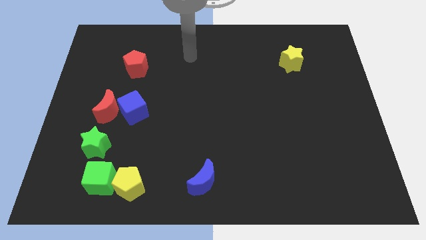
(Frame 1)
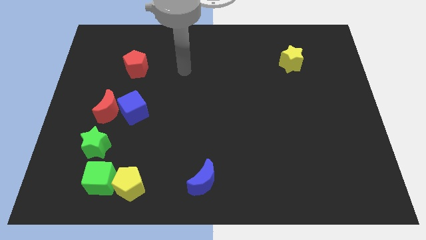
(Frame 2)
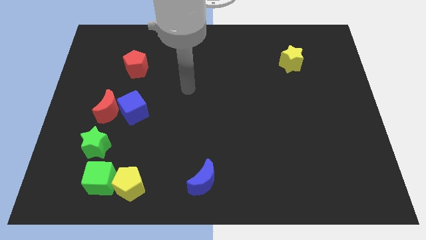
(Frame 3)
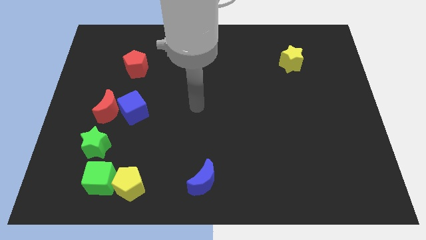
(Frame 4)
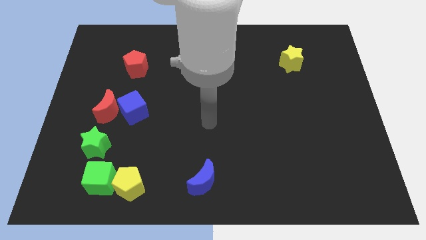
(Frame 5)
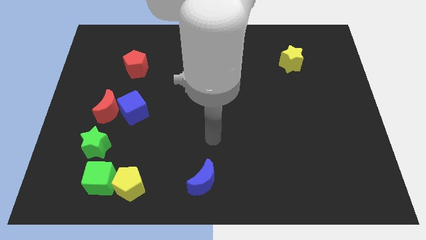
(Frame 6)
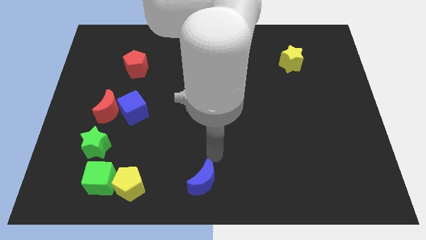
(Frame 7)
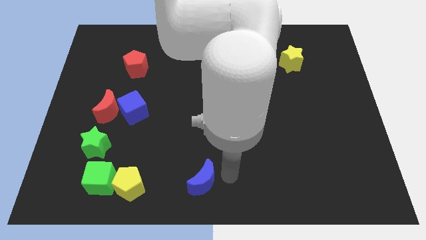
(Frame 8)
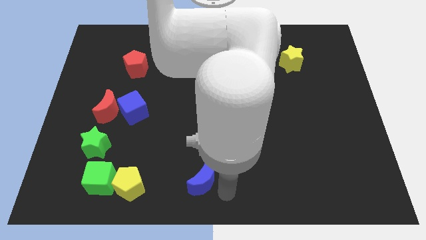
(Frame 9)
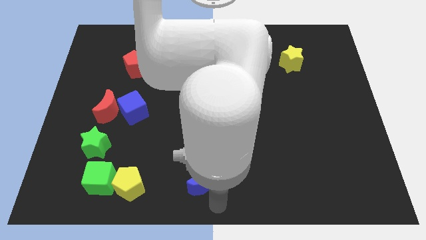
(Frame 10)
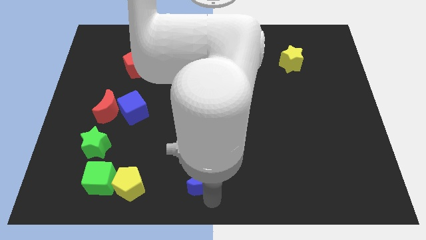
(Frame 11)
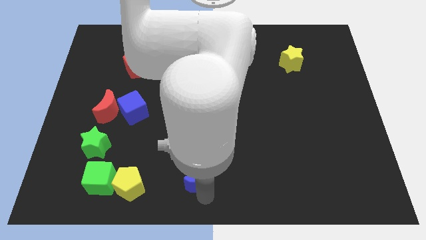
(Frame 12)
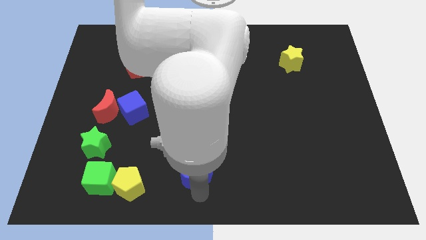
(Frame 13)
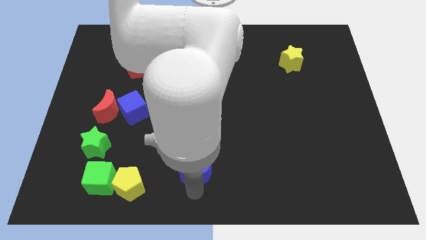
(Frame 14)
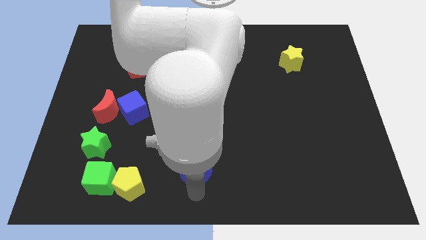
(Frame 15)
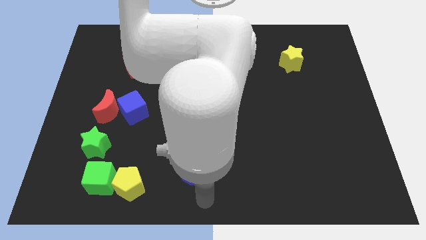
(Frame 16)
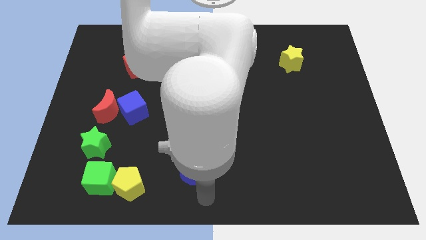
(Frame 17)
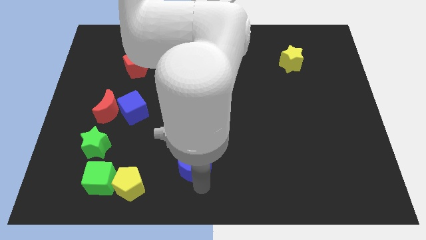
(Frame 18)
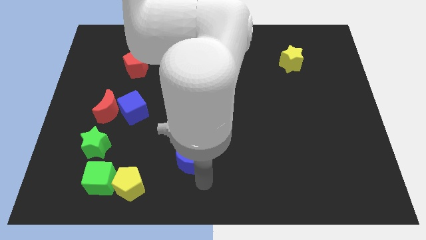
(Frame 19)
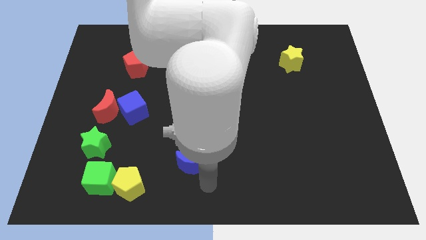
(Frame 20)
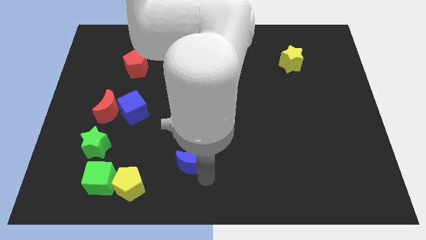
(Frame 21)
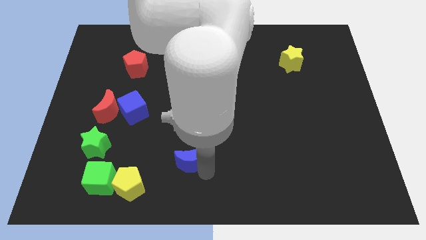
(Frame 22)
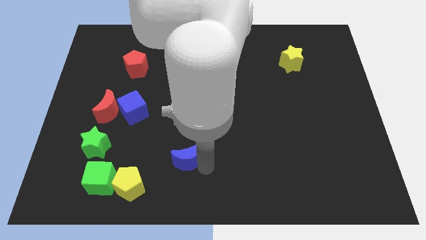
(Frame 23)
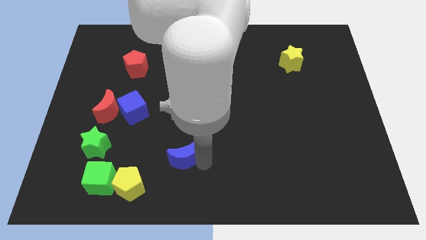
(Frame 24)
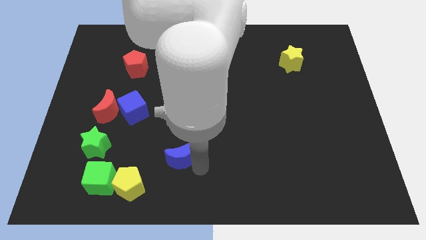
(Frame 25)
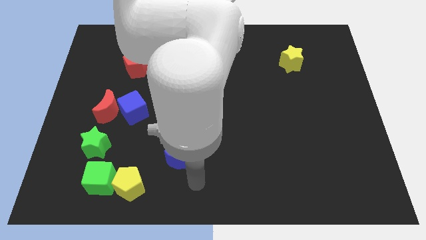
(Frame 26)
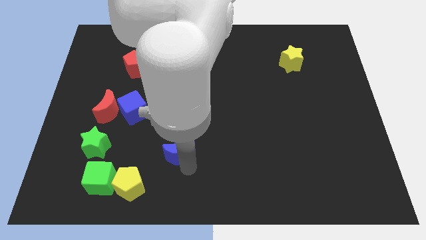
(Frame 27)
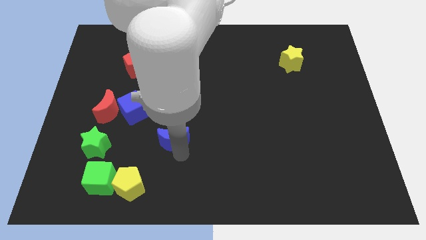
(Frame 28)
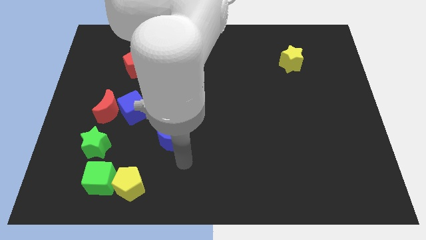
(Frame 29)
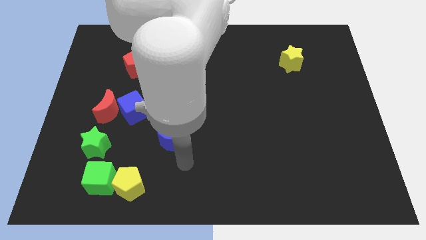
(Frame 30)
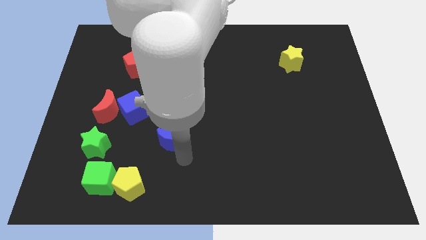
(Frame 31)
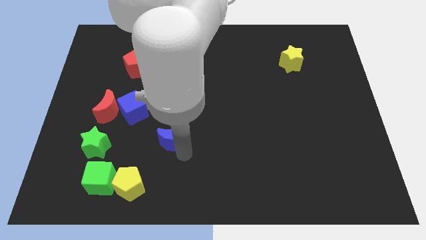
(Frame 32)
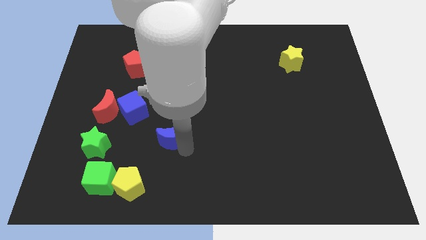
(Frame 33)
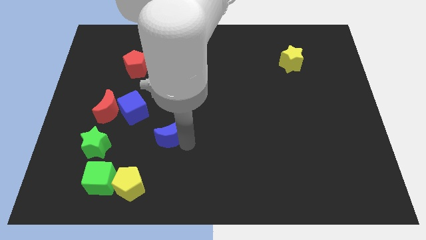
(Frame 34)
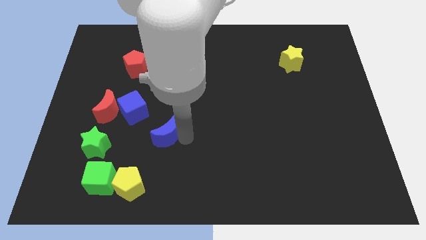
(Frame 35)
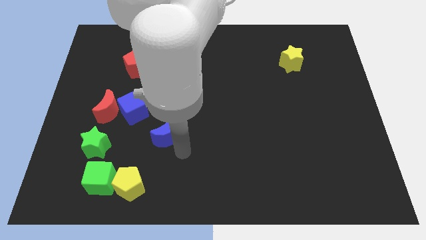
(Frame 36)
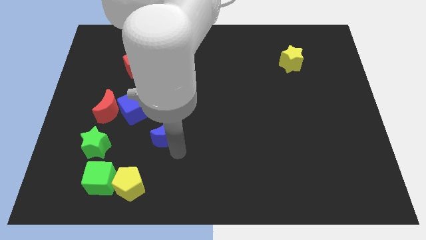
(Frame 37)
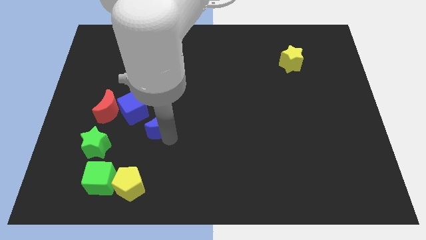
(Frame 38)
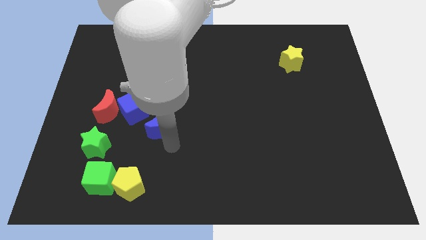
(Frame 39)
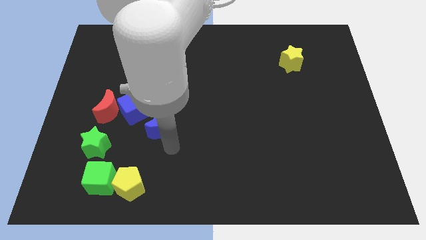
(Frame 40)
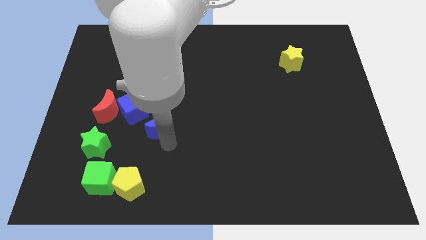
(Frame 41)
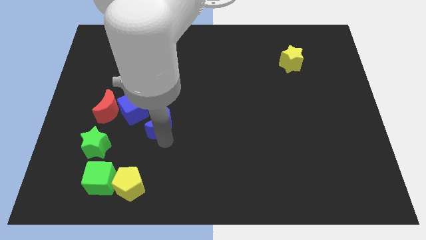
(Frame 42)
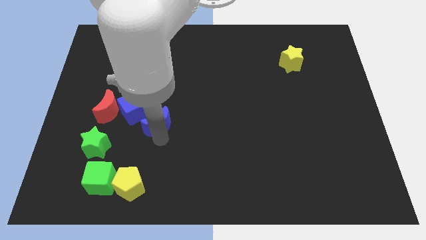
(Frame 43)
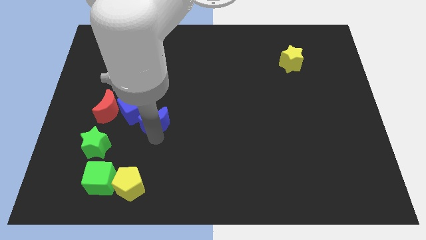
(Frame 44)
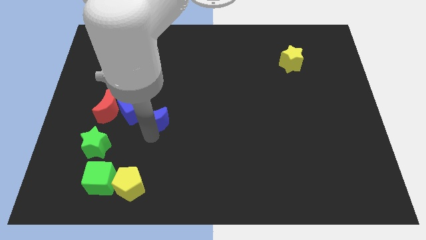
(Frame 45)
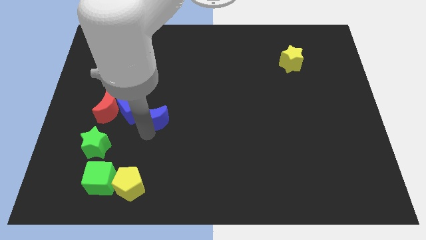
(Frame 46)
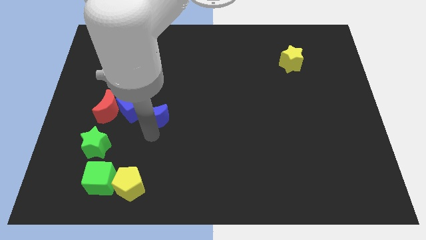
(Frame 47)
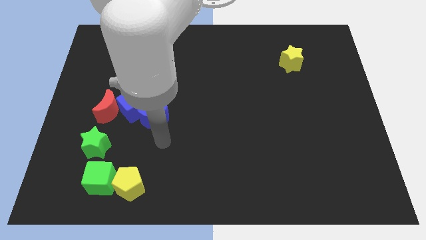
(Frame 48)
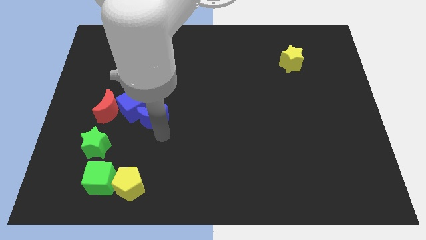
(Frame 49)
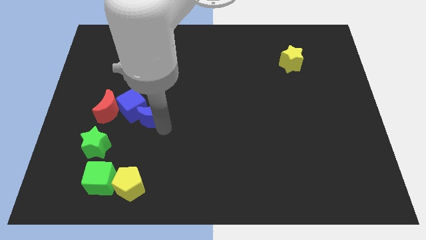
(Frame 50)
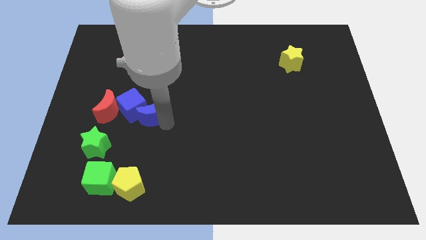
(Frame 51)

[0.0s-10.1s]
push the blue moon up and then to the left

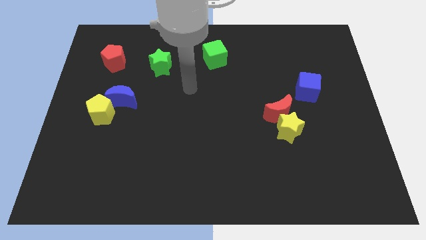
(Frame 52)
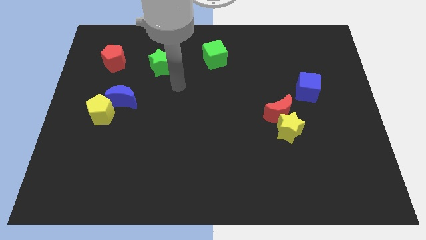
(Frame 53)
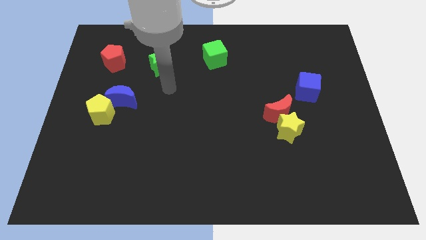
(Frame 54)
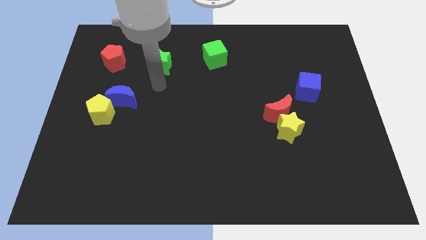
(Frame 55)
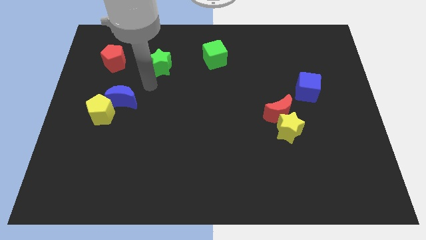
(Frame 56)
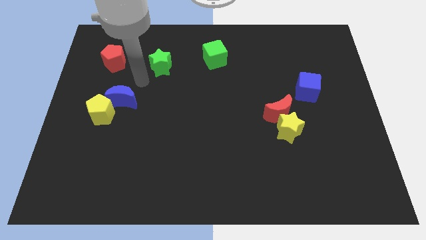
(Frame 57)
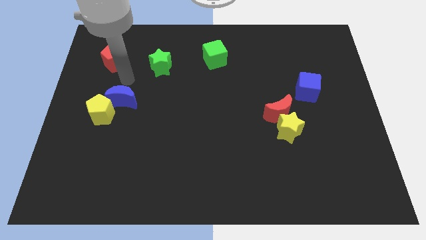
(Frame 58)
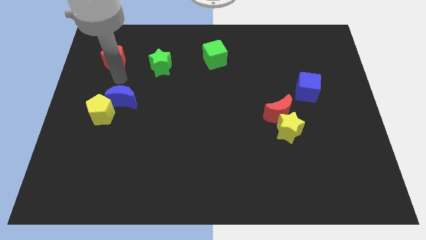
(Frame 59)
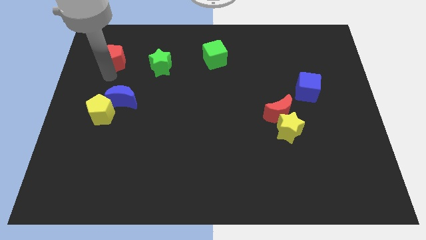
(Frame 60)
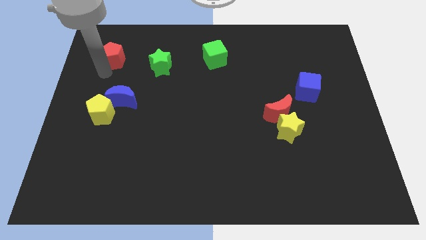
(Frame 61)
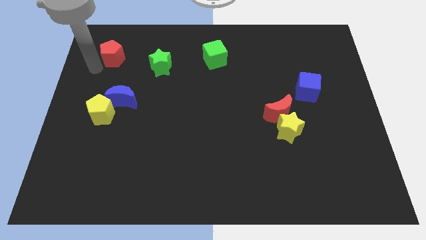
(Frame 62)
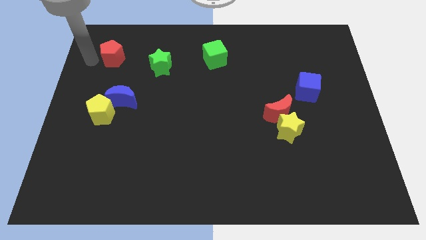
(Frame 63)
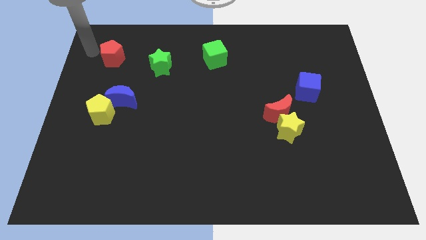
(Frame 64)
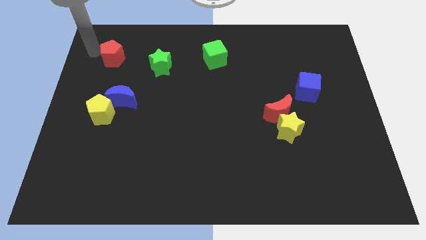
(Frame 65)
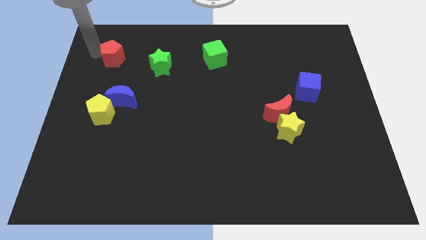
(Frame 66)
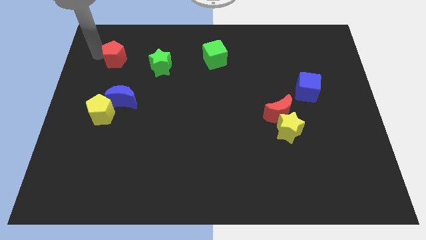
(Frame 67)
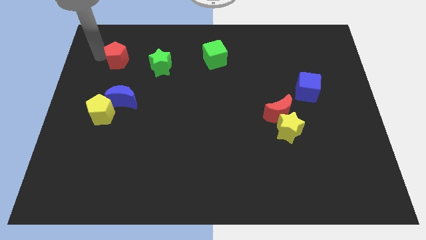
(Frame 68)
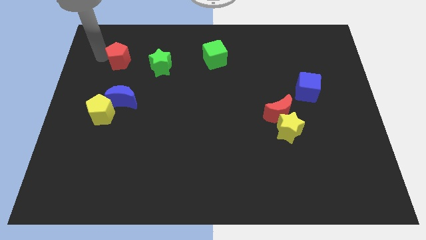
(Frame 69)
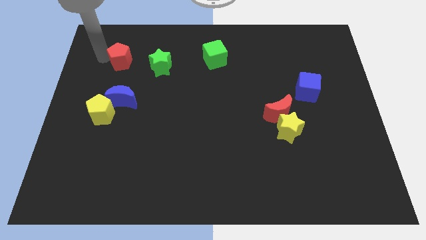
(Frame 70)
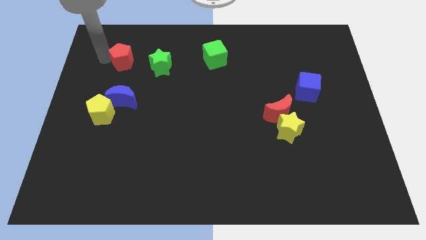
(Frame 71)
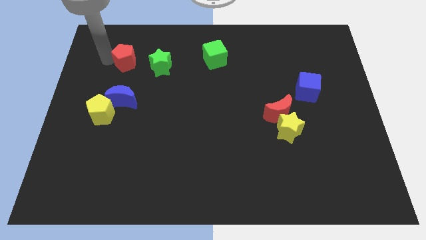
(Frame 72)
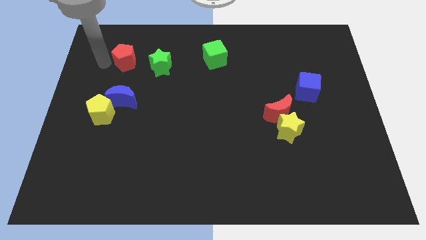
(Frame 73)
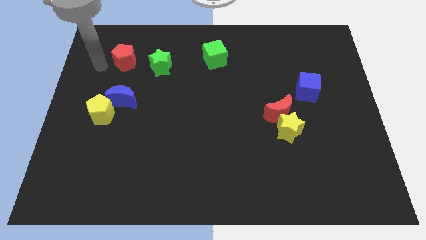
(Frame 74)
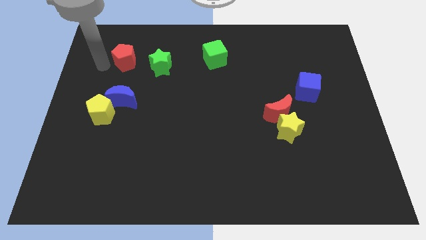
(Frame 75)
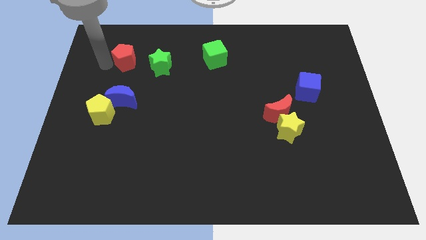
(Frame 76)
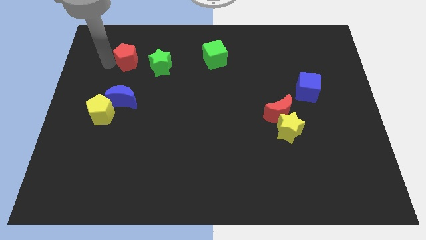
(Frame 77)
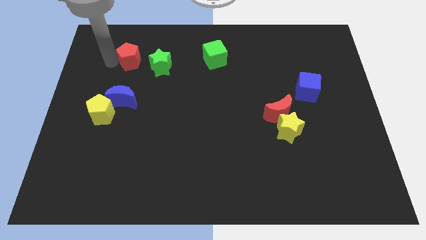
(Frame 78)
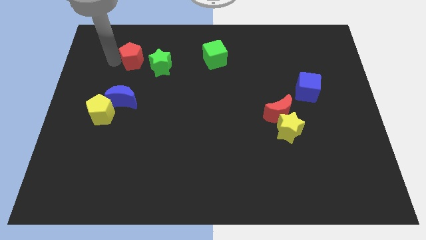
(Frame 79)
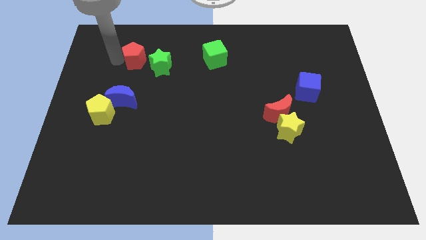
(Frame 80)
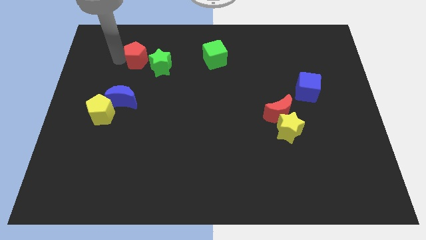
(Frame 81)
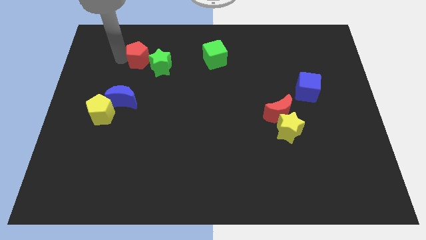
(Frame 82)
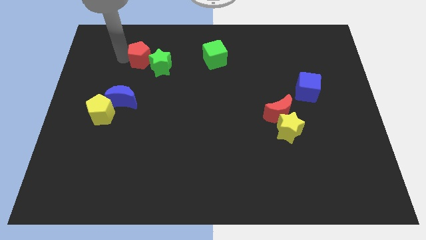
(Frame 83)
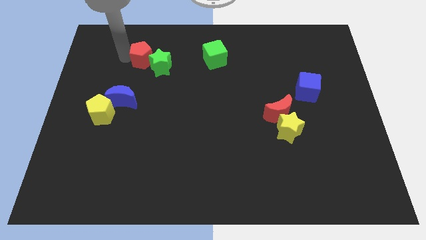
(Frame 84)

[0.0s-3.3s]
slide the red pentagon right a little bit
